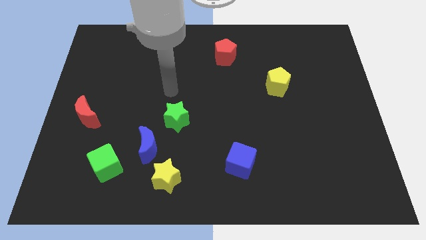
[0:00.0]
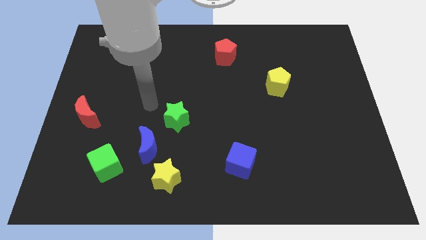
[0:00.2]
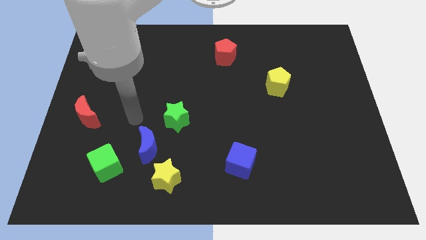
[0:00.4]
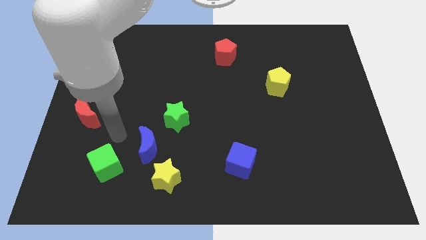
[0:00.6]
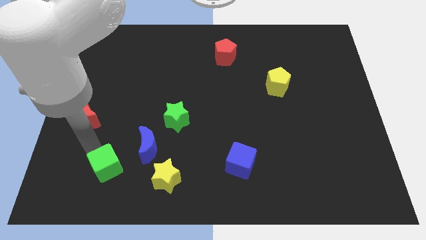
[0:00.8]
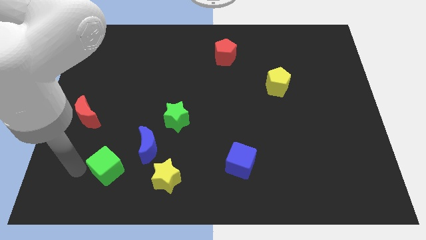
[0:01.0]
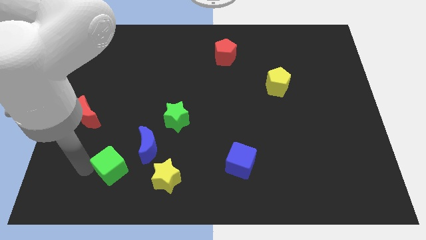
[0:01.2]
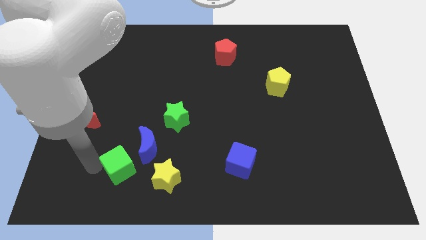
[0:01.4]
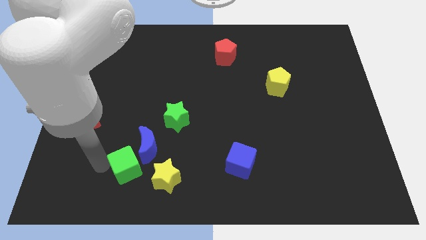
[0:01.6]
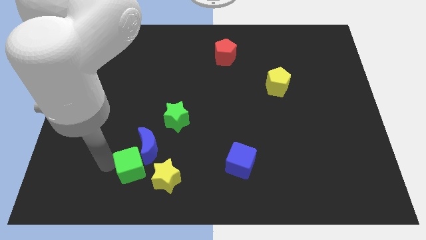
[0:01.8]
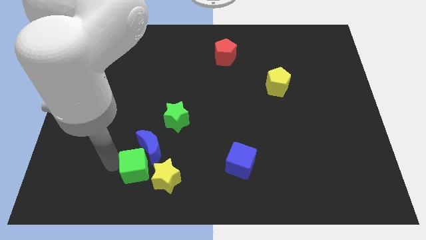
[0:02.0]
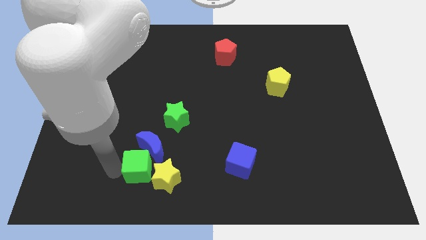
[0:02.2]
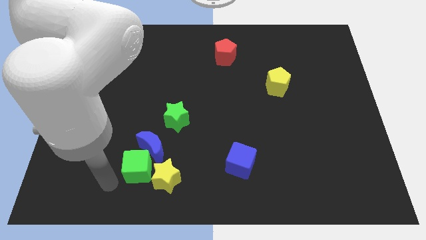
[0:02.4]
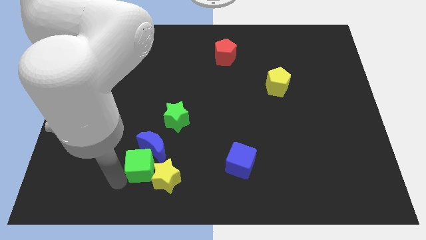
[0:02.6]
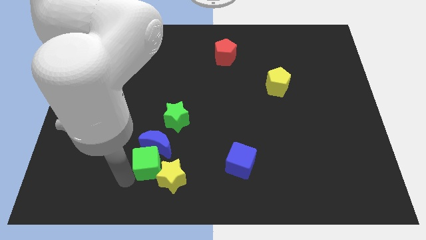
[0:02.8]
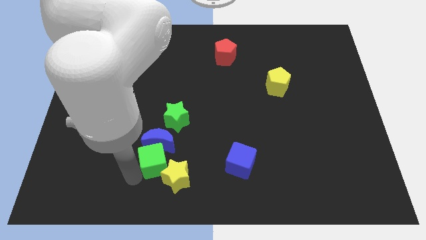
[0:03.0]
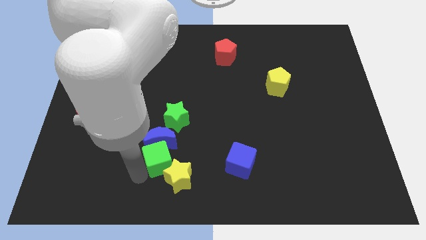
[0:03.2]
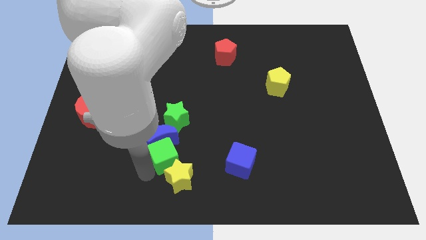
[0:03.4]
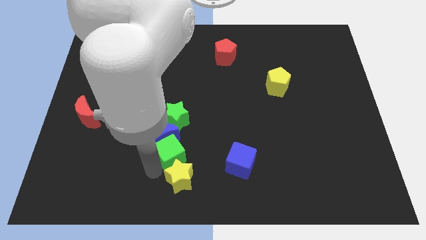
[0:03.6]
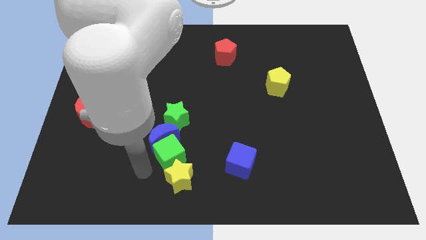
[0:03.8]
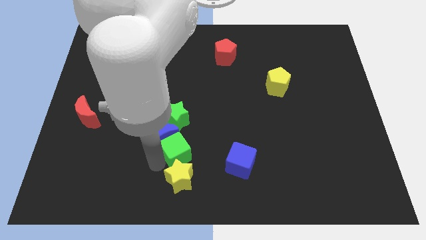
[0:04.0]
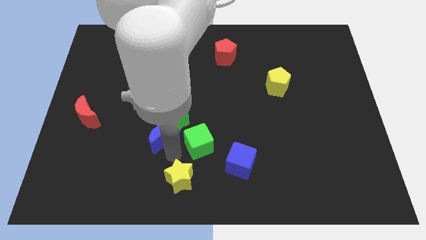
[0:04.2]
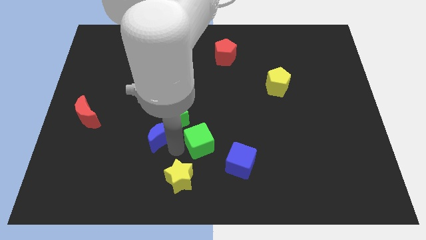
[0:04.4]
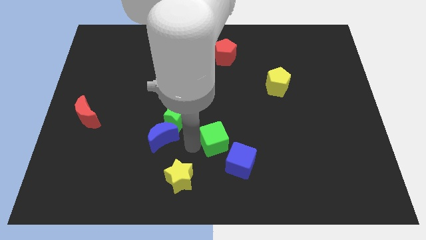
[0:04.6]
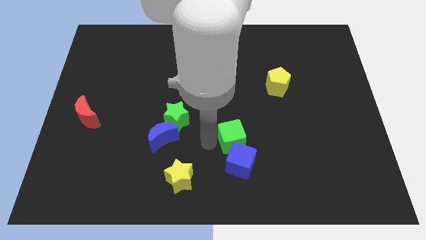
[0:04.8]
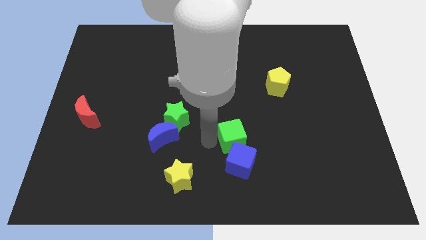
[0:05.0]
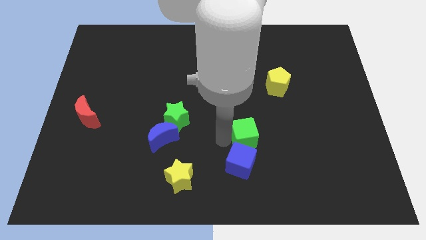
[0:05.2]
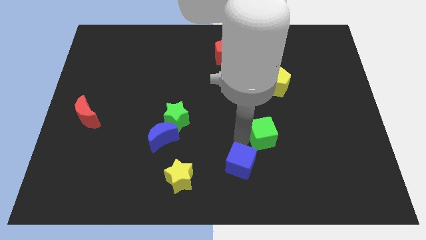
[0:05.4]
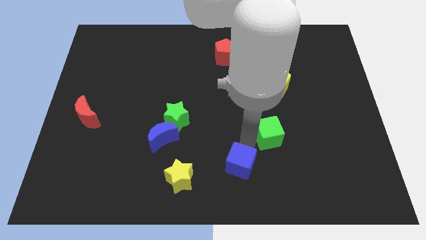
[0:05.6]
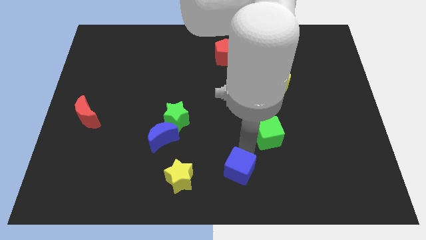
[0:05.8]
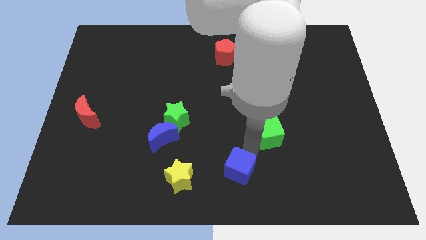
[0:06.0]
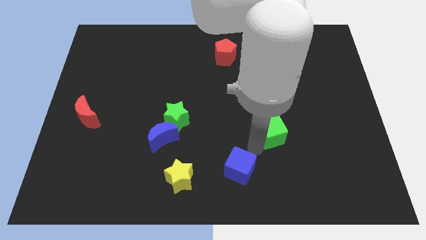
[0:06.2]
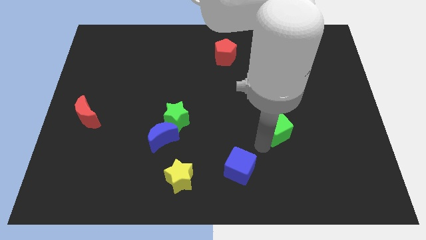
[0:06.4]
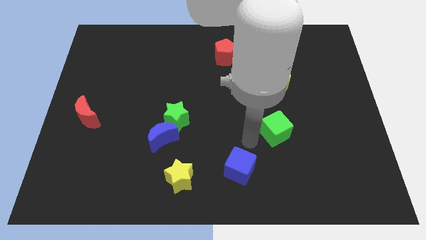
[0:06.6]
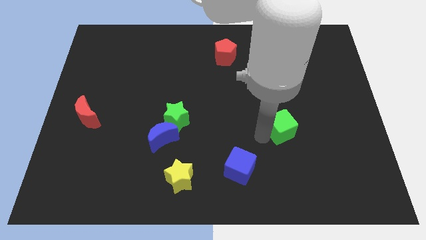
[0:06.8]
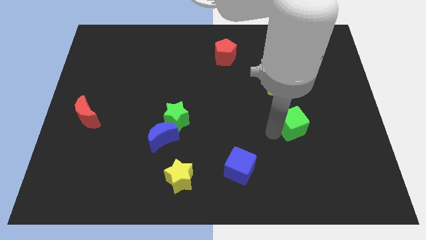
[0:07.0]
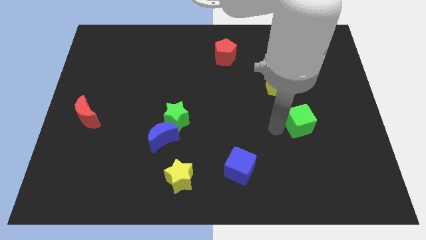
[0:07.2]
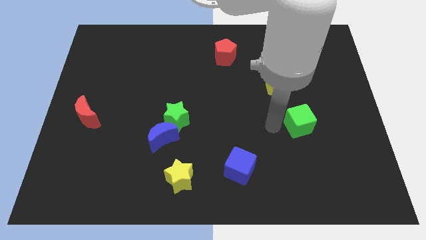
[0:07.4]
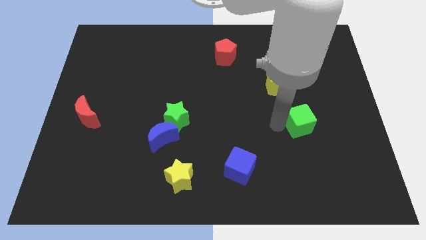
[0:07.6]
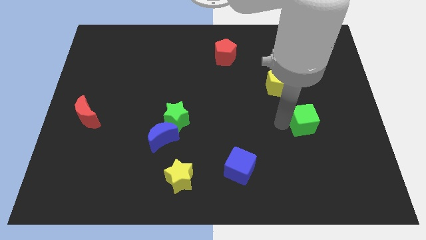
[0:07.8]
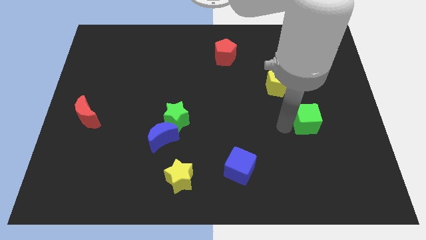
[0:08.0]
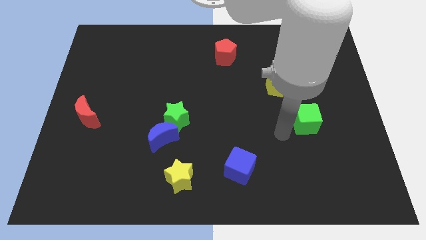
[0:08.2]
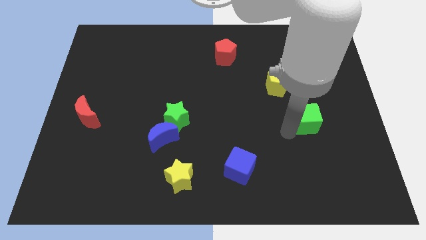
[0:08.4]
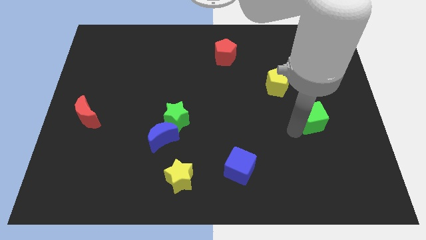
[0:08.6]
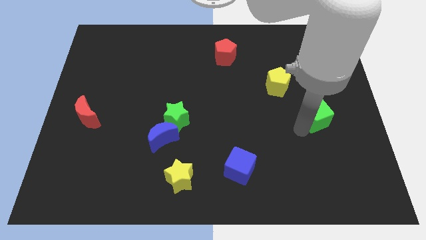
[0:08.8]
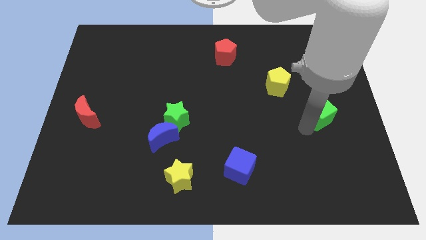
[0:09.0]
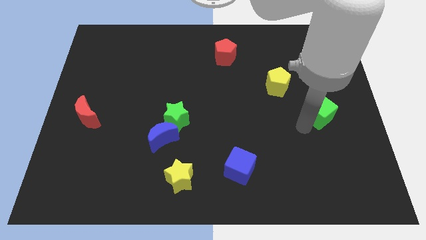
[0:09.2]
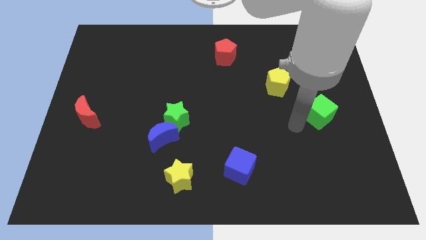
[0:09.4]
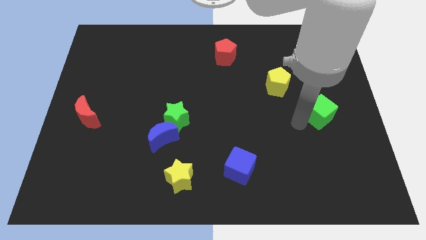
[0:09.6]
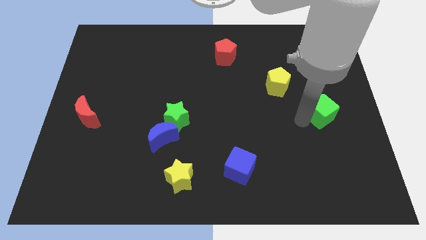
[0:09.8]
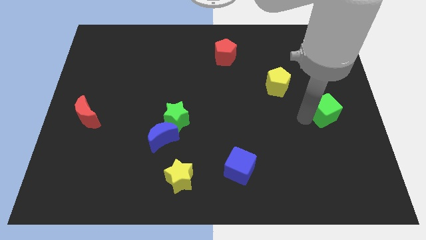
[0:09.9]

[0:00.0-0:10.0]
slide the green cube to the right side of the board

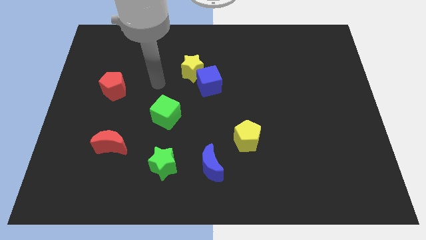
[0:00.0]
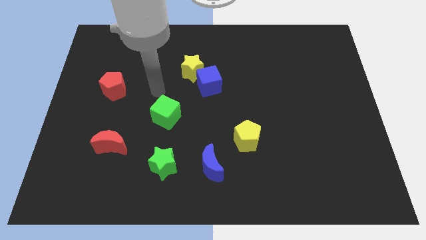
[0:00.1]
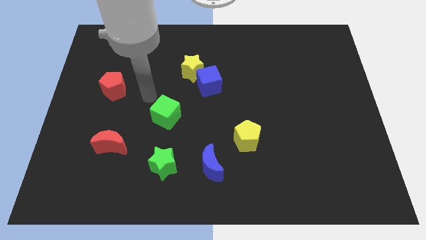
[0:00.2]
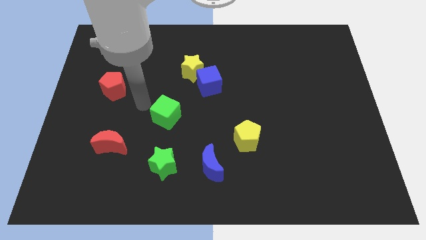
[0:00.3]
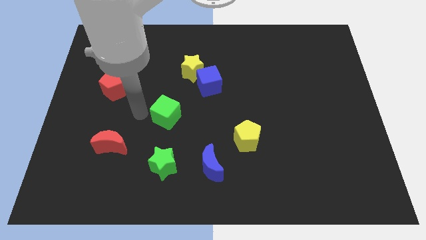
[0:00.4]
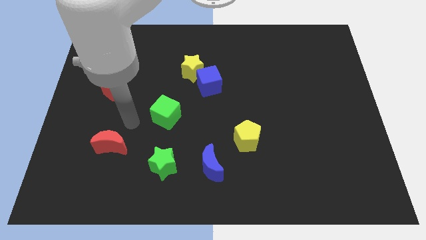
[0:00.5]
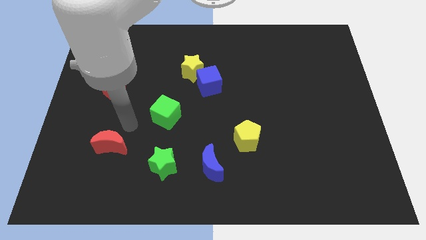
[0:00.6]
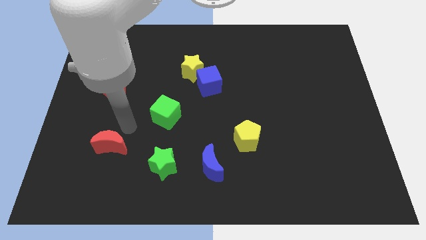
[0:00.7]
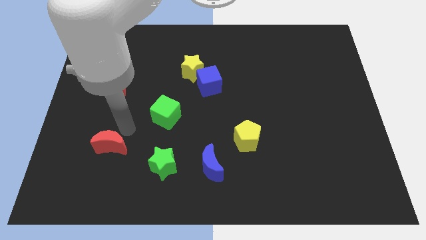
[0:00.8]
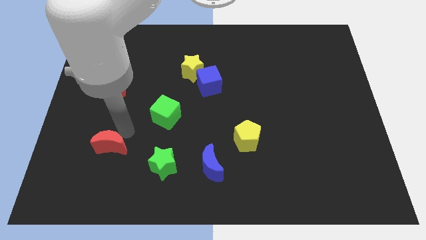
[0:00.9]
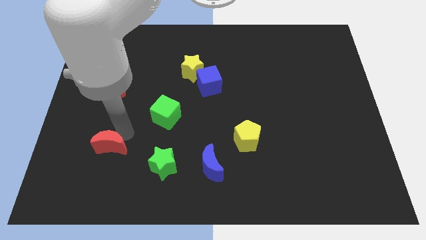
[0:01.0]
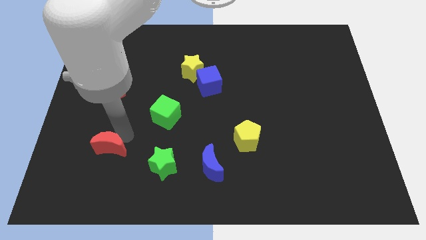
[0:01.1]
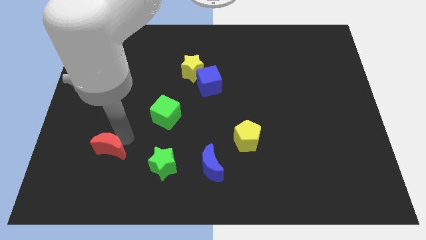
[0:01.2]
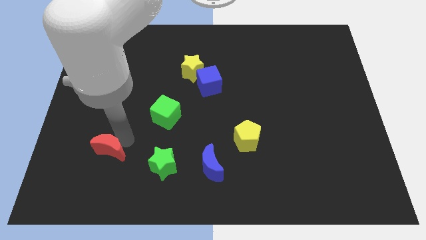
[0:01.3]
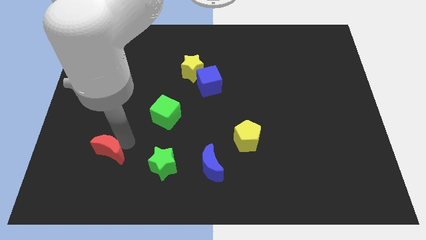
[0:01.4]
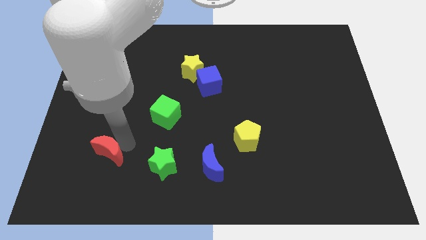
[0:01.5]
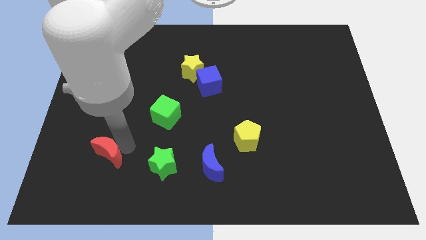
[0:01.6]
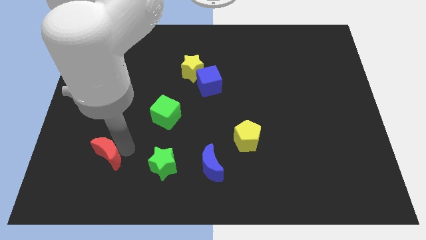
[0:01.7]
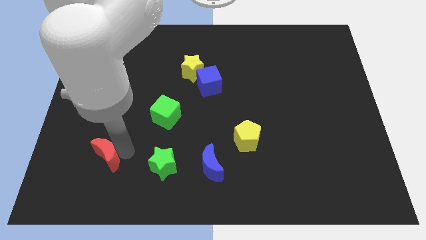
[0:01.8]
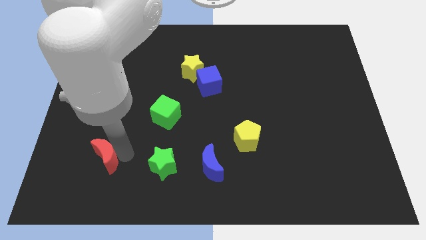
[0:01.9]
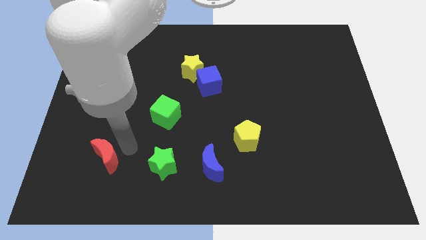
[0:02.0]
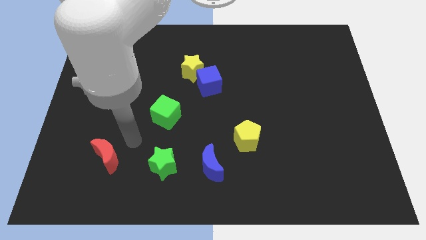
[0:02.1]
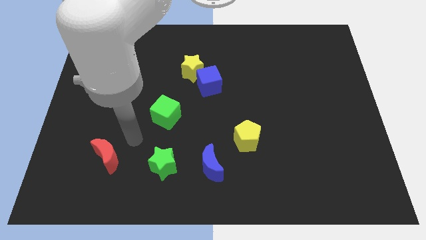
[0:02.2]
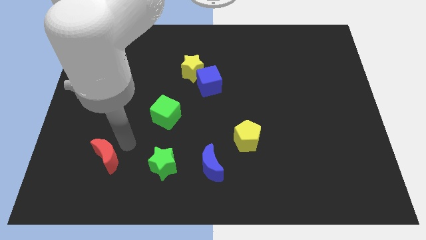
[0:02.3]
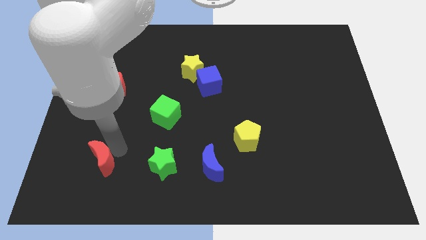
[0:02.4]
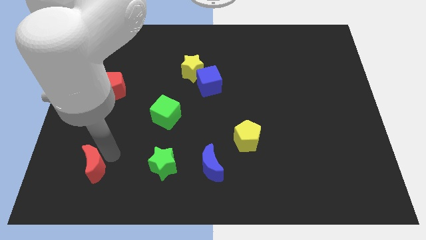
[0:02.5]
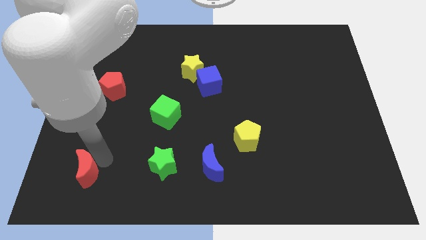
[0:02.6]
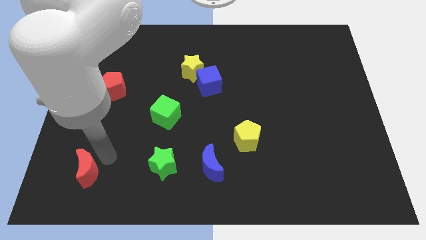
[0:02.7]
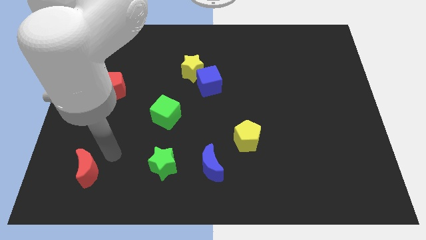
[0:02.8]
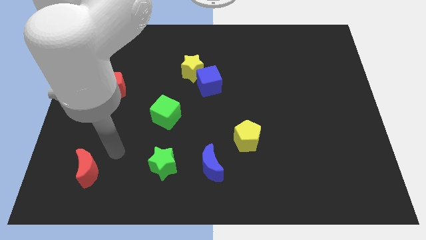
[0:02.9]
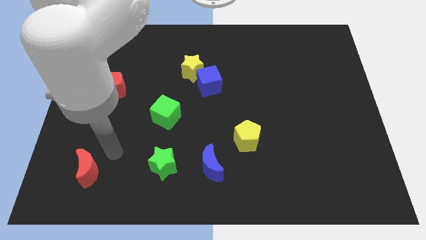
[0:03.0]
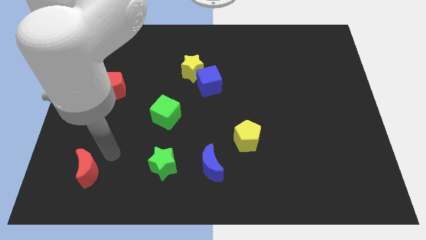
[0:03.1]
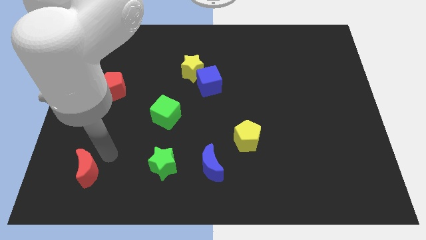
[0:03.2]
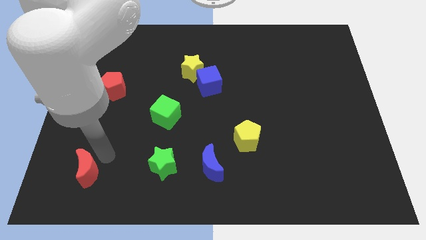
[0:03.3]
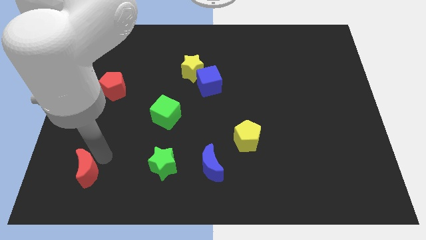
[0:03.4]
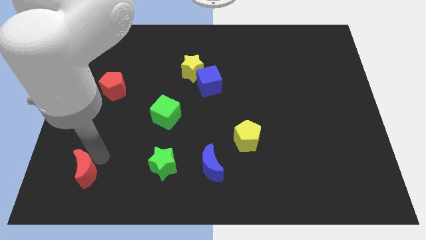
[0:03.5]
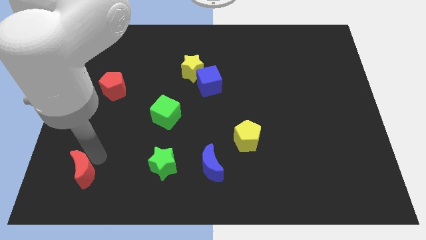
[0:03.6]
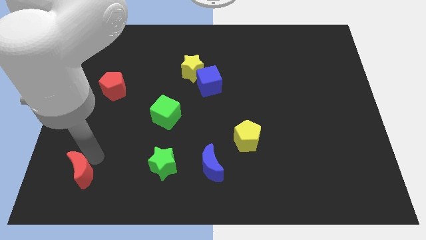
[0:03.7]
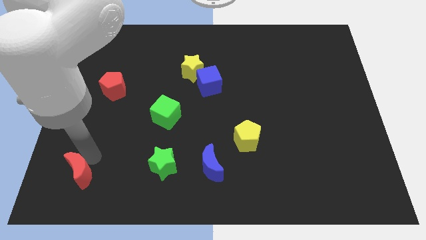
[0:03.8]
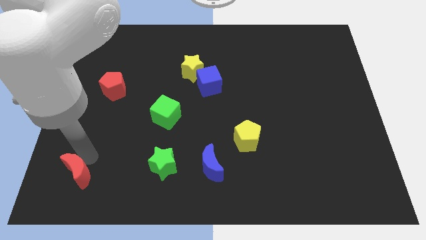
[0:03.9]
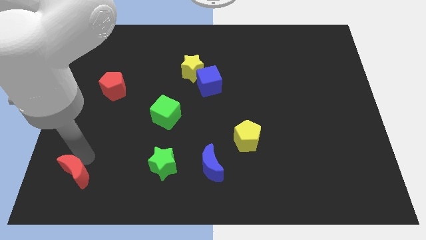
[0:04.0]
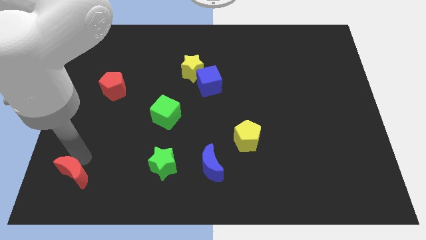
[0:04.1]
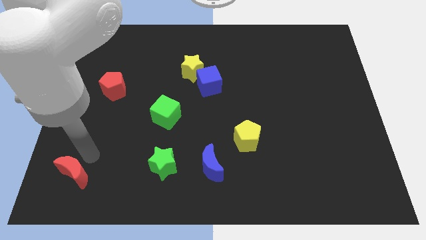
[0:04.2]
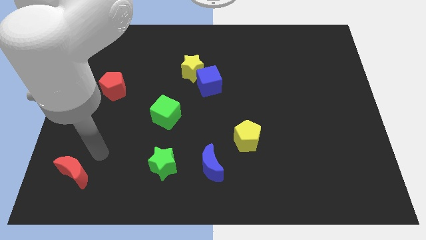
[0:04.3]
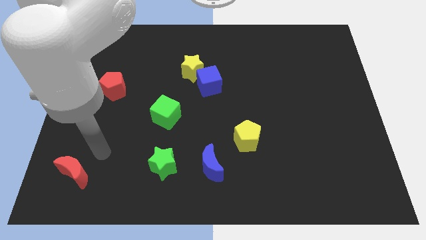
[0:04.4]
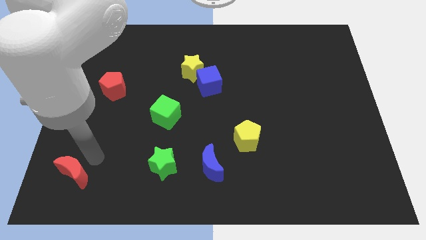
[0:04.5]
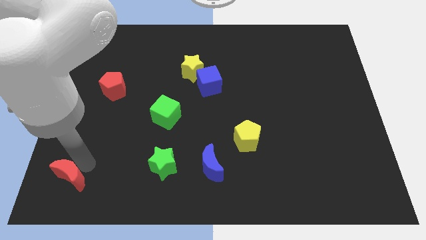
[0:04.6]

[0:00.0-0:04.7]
put the red moon to the lower left corner
